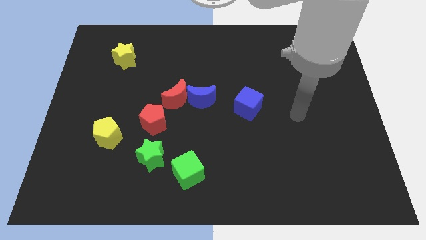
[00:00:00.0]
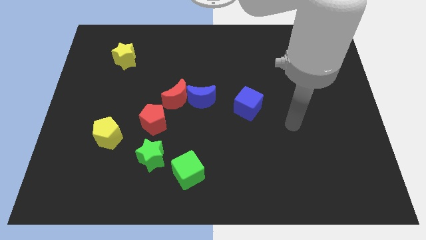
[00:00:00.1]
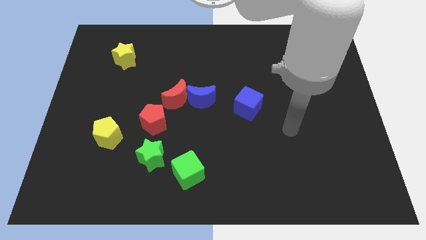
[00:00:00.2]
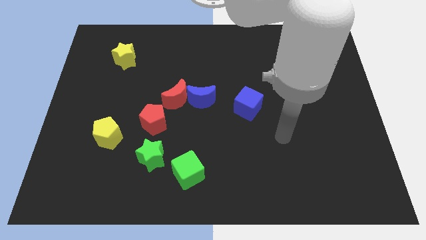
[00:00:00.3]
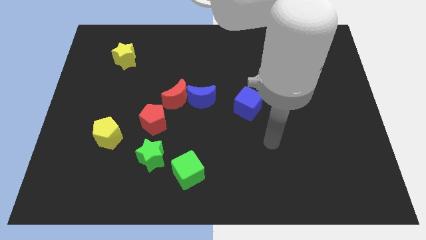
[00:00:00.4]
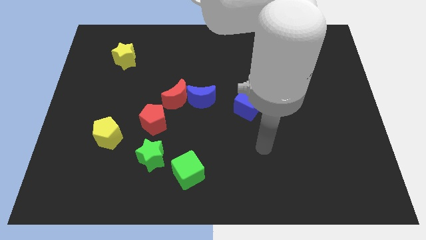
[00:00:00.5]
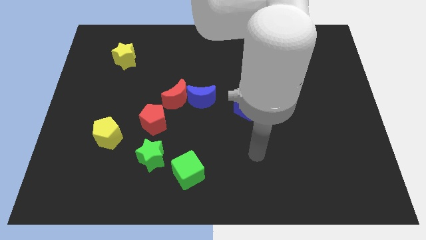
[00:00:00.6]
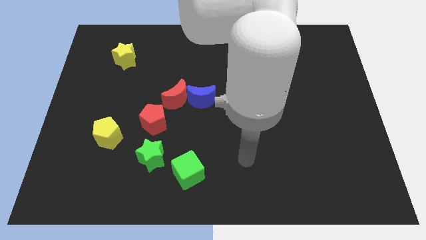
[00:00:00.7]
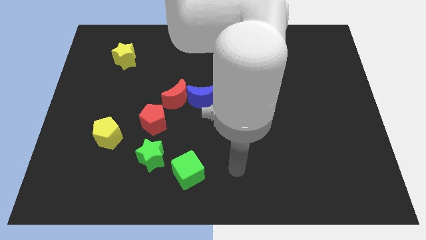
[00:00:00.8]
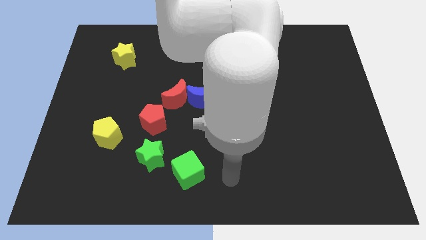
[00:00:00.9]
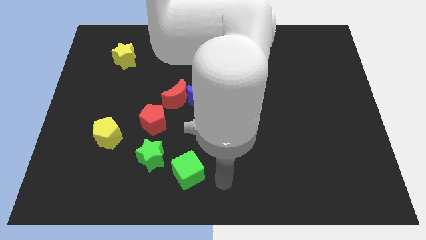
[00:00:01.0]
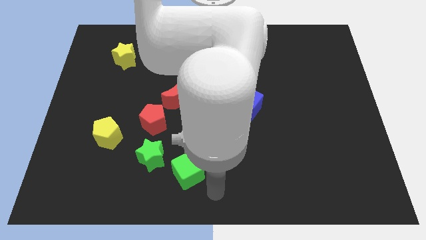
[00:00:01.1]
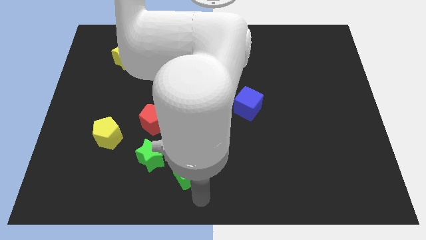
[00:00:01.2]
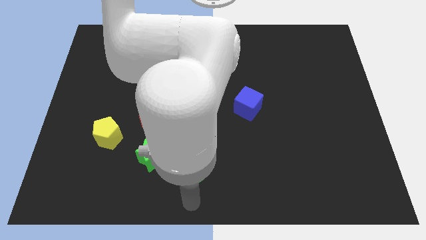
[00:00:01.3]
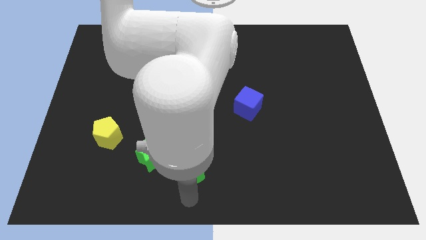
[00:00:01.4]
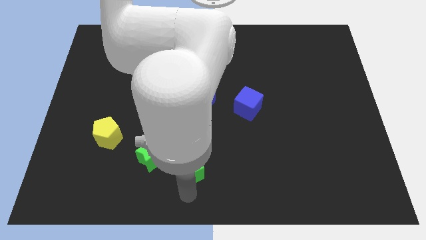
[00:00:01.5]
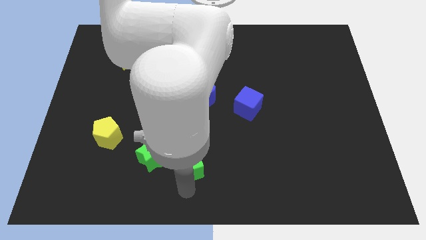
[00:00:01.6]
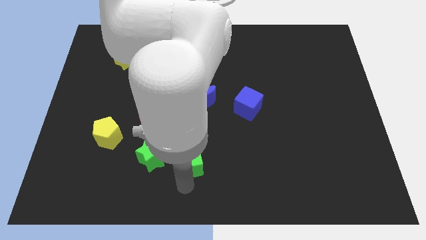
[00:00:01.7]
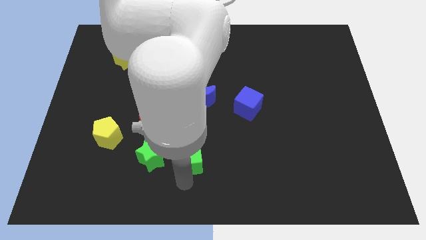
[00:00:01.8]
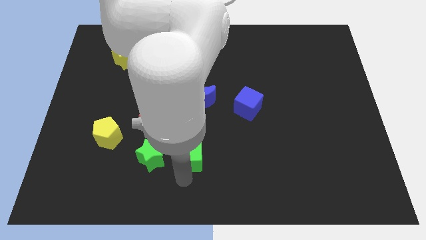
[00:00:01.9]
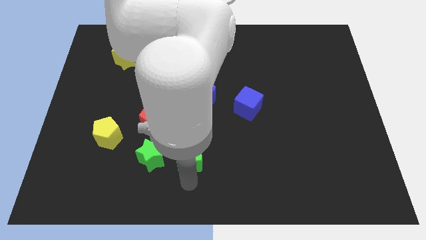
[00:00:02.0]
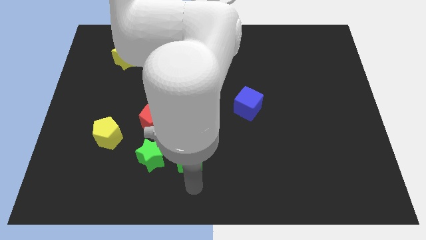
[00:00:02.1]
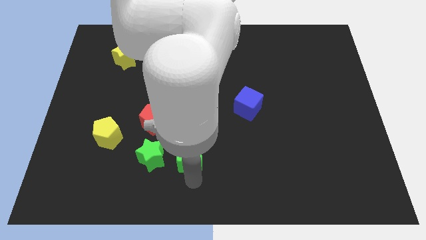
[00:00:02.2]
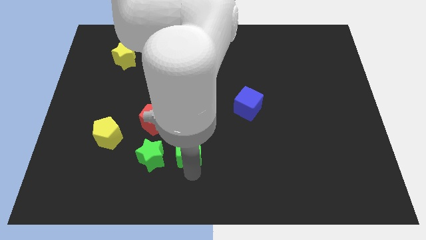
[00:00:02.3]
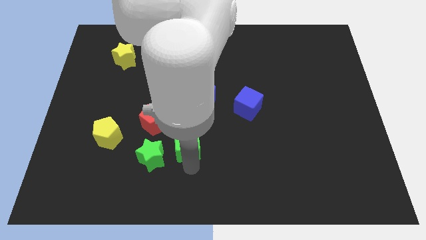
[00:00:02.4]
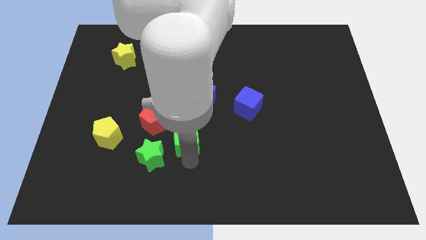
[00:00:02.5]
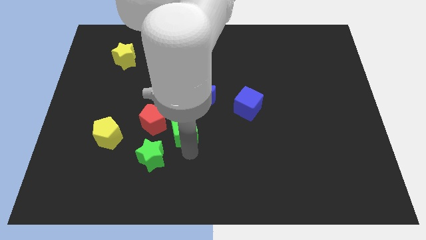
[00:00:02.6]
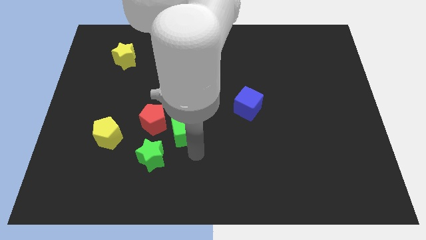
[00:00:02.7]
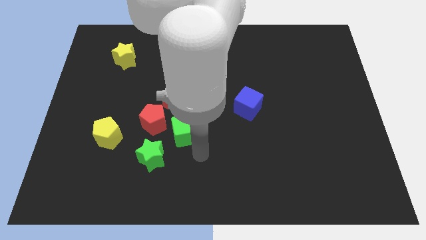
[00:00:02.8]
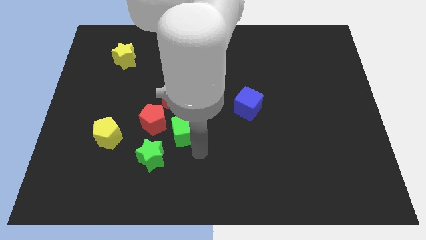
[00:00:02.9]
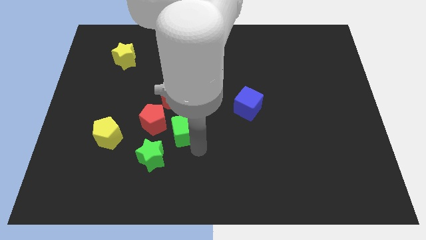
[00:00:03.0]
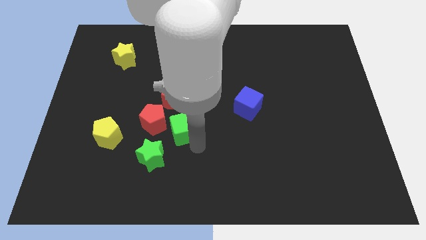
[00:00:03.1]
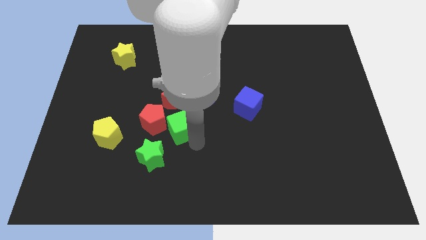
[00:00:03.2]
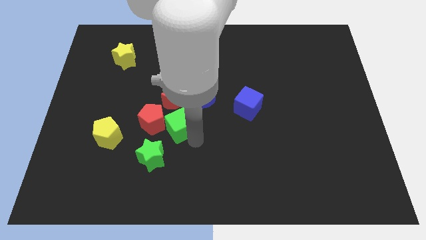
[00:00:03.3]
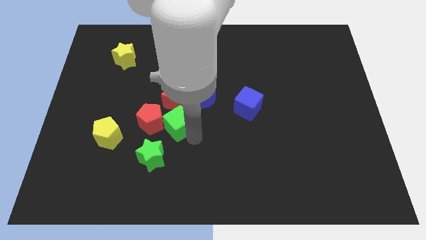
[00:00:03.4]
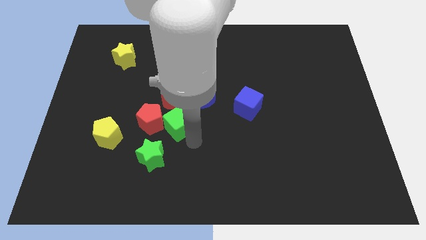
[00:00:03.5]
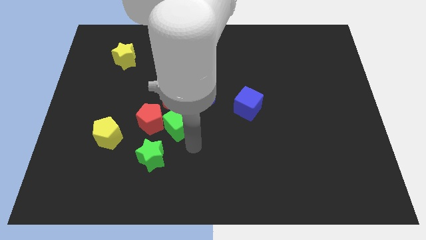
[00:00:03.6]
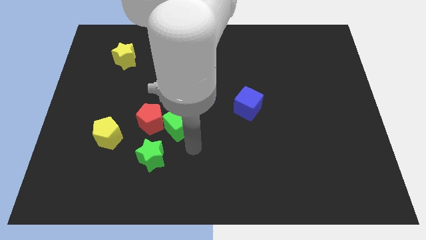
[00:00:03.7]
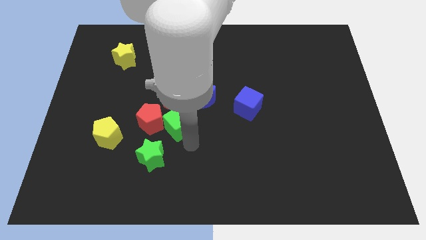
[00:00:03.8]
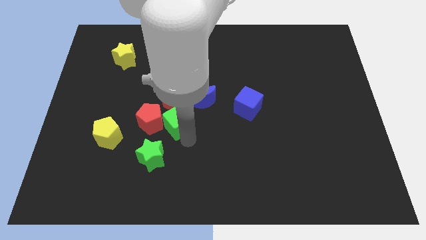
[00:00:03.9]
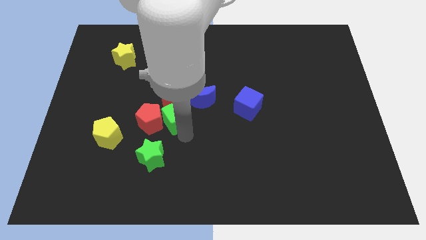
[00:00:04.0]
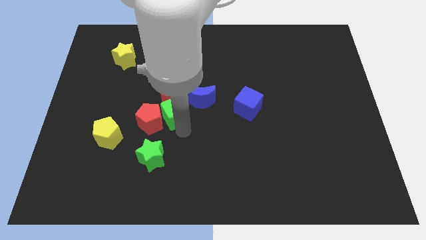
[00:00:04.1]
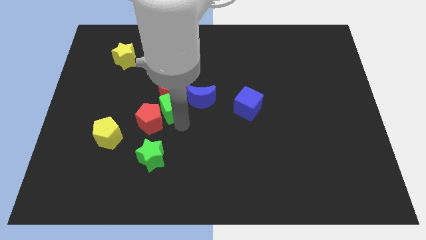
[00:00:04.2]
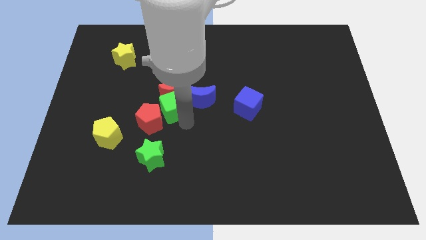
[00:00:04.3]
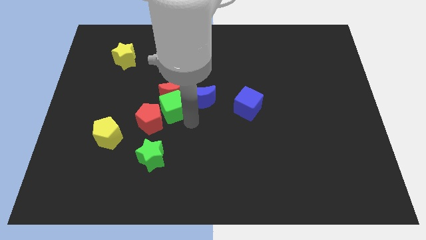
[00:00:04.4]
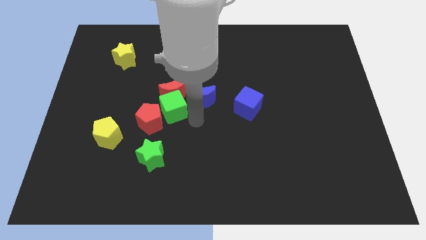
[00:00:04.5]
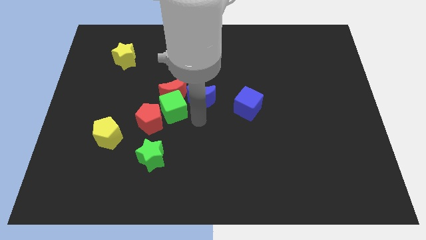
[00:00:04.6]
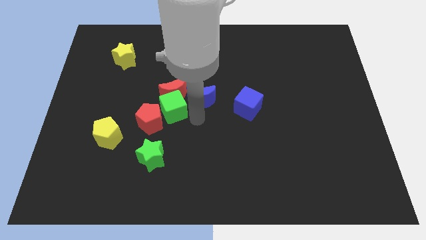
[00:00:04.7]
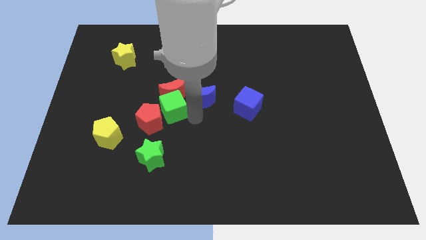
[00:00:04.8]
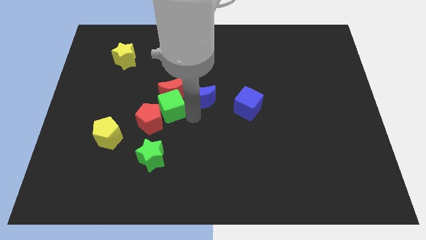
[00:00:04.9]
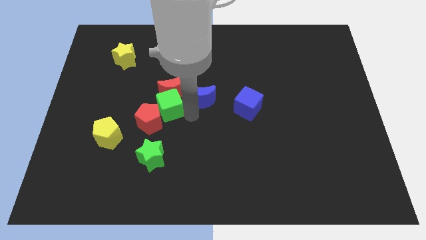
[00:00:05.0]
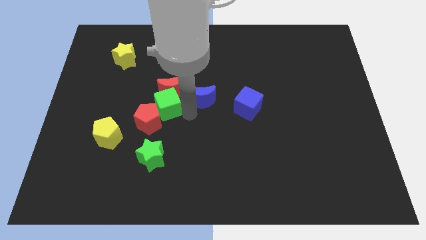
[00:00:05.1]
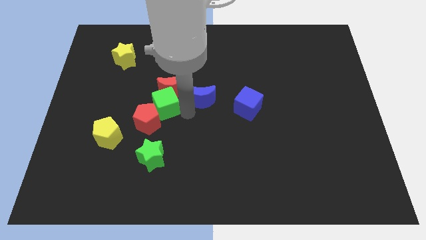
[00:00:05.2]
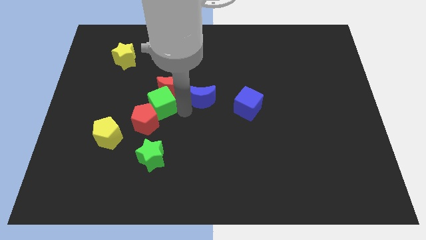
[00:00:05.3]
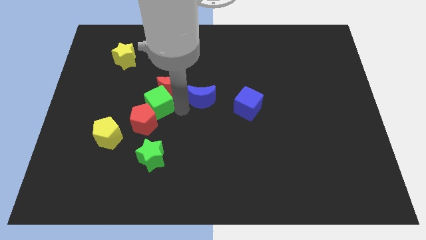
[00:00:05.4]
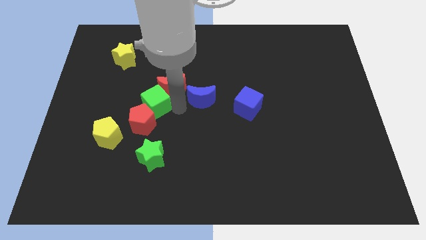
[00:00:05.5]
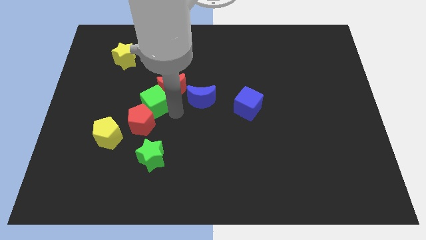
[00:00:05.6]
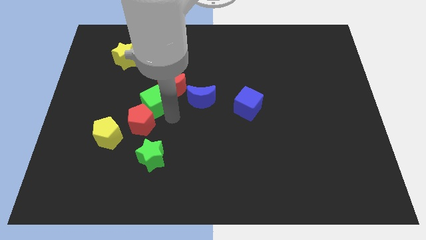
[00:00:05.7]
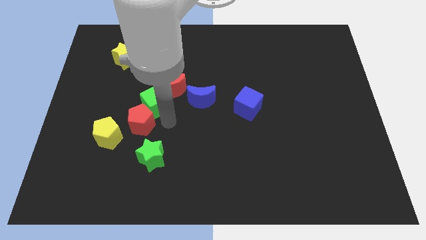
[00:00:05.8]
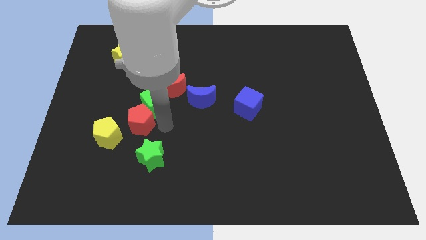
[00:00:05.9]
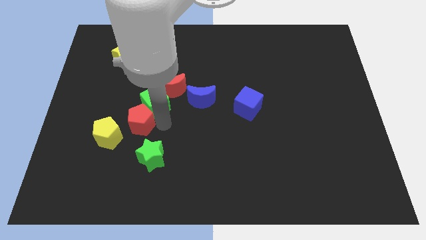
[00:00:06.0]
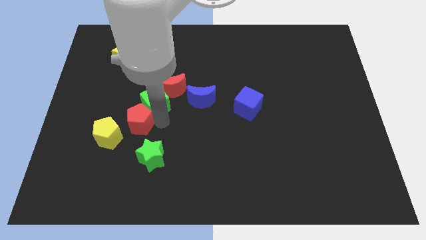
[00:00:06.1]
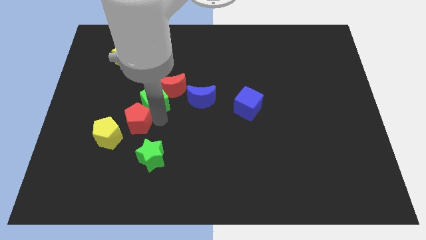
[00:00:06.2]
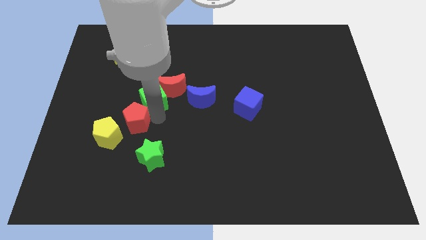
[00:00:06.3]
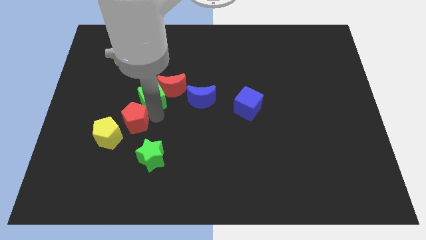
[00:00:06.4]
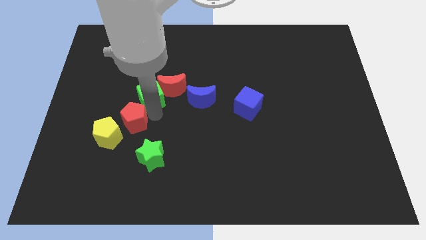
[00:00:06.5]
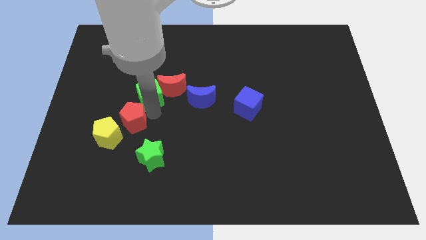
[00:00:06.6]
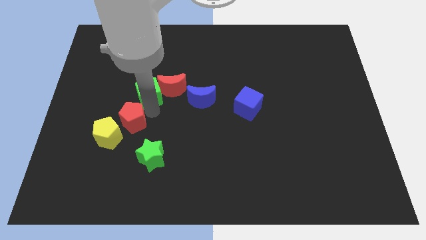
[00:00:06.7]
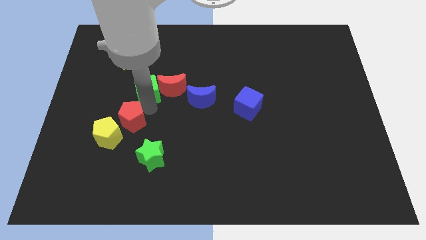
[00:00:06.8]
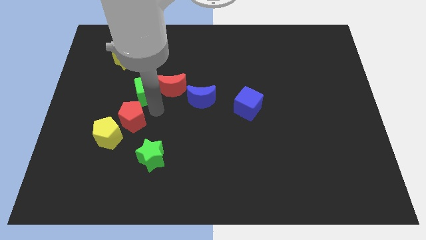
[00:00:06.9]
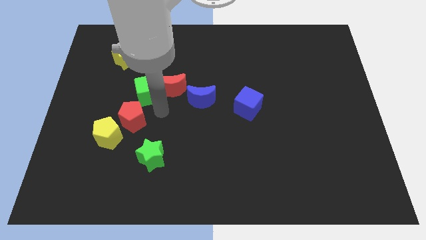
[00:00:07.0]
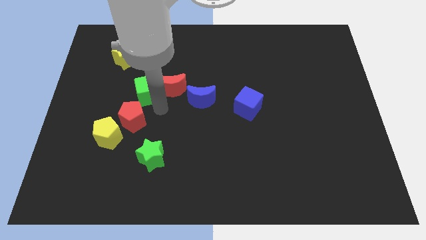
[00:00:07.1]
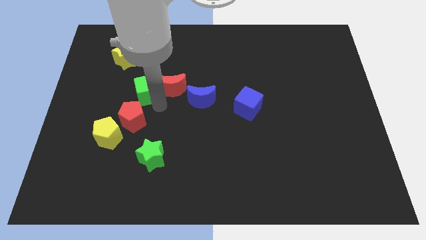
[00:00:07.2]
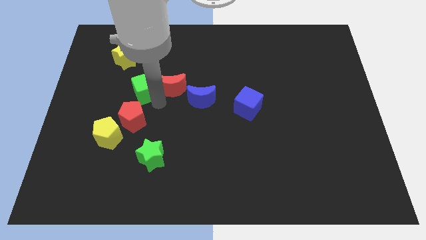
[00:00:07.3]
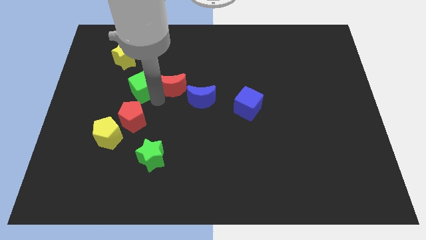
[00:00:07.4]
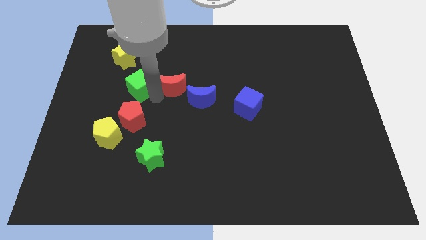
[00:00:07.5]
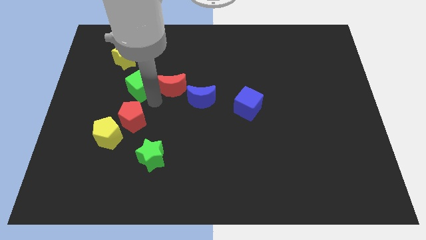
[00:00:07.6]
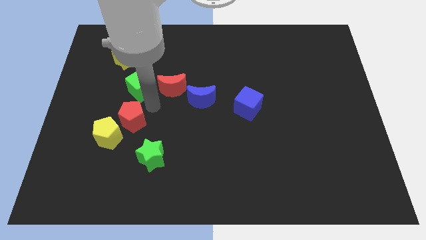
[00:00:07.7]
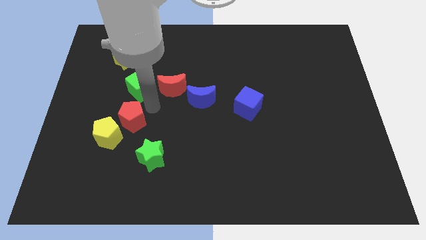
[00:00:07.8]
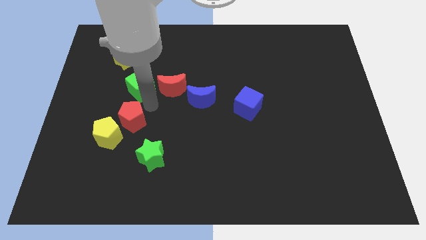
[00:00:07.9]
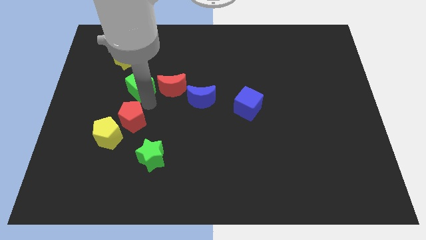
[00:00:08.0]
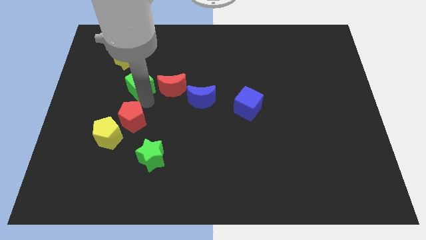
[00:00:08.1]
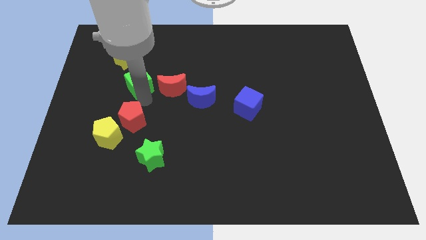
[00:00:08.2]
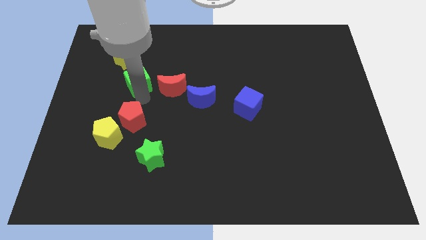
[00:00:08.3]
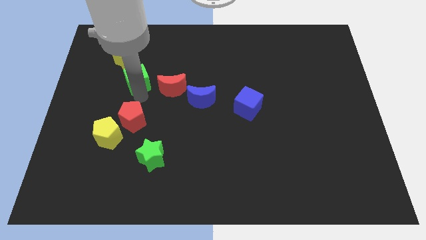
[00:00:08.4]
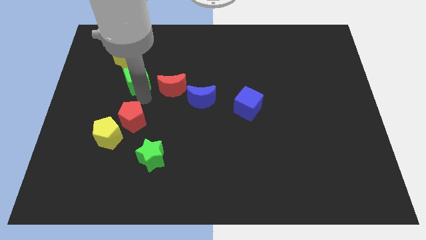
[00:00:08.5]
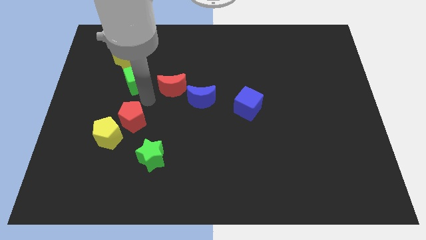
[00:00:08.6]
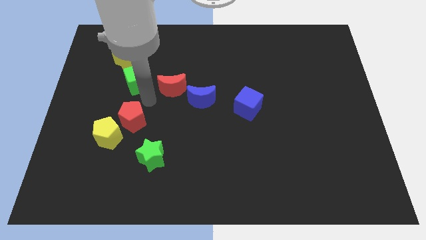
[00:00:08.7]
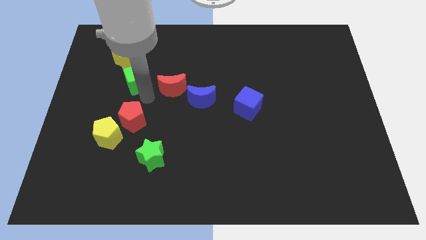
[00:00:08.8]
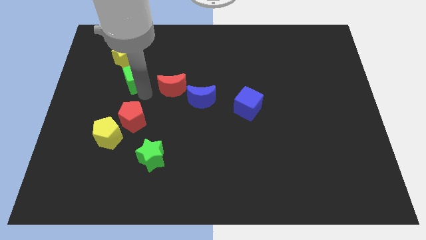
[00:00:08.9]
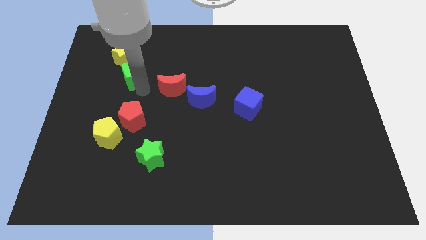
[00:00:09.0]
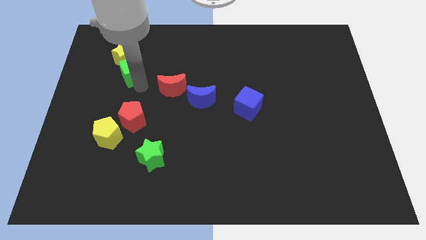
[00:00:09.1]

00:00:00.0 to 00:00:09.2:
put the green cube next to the yellow star
